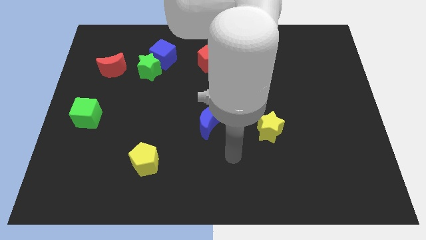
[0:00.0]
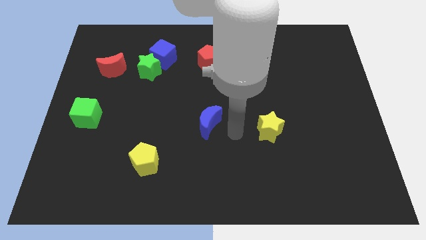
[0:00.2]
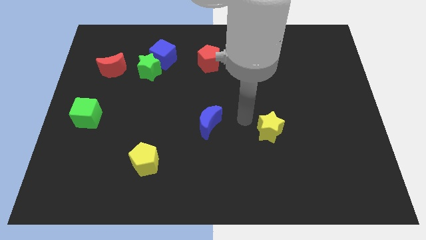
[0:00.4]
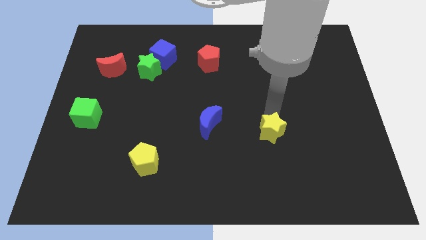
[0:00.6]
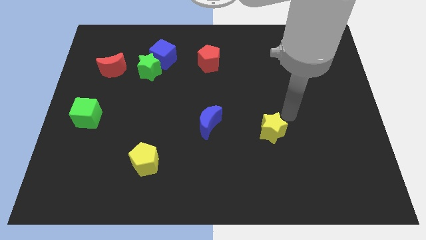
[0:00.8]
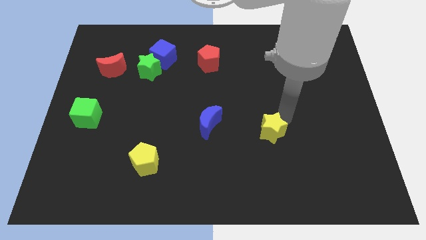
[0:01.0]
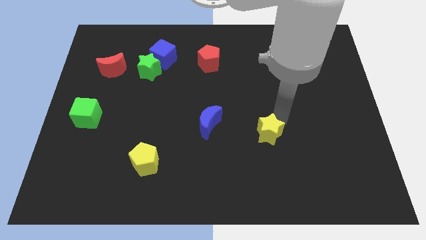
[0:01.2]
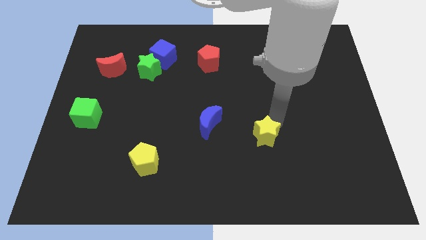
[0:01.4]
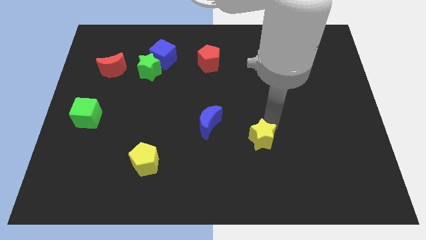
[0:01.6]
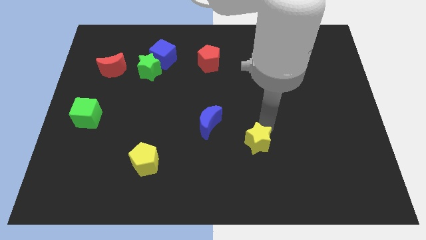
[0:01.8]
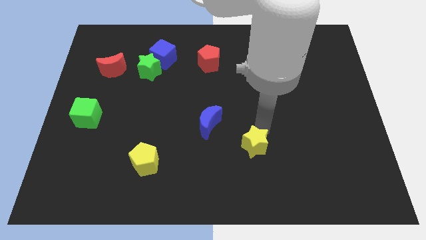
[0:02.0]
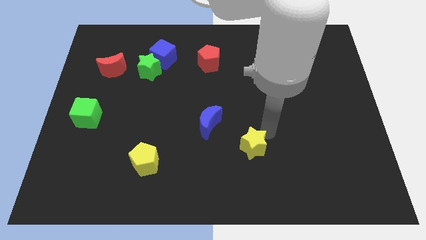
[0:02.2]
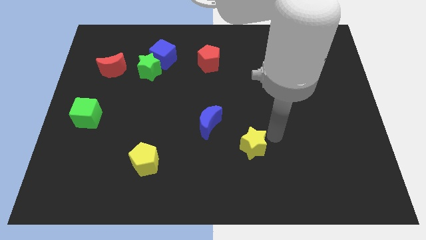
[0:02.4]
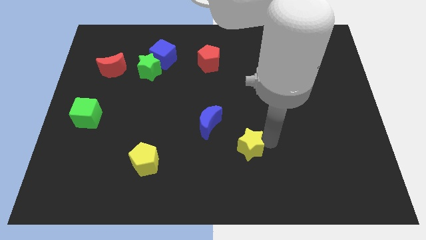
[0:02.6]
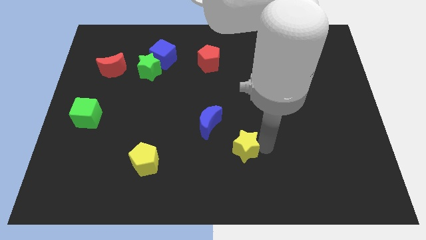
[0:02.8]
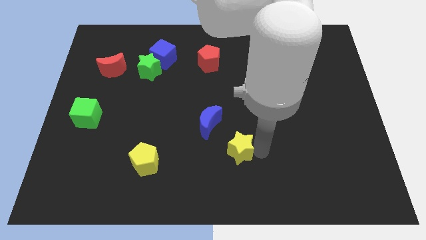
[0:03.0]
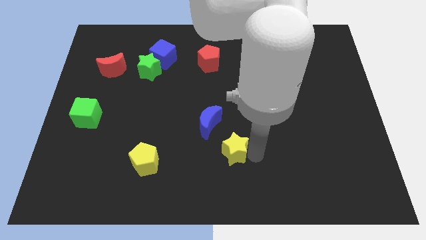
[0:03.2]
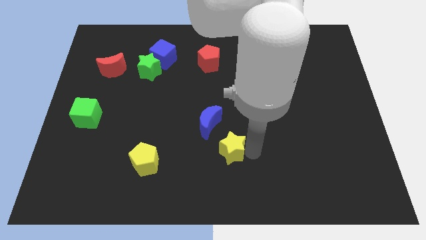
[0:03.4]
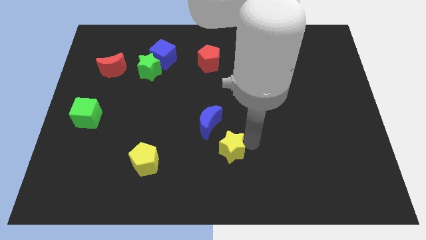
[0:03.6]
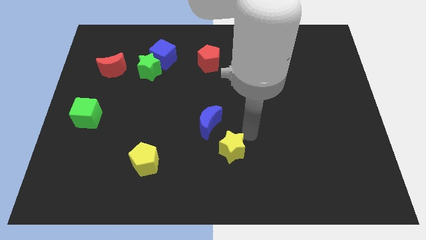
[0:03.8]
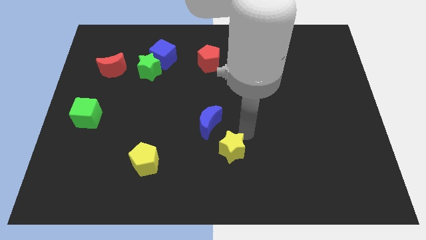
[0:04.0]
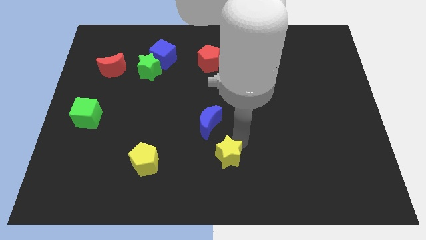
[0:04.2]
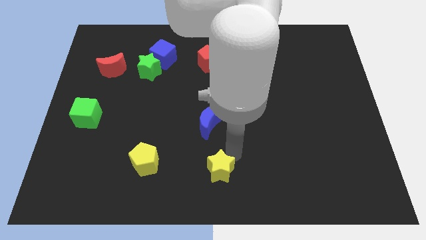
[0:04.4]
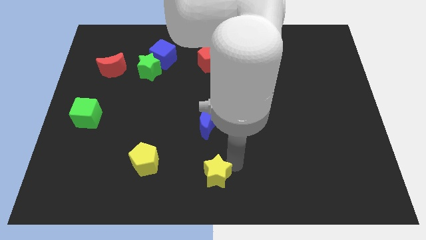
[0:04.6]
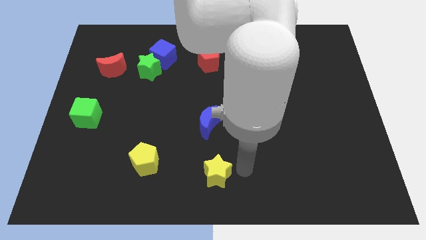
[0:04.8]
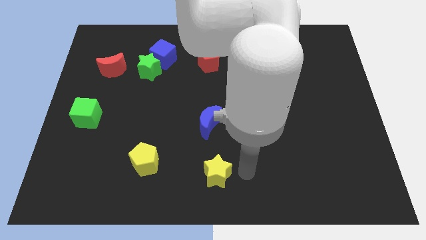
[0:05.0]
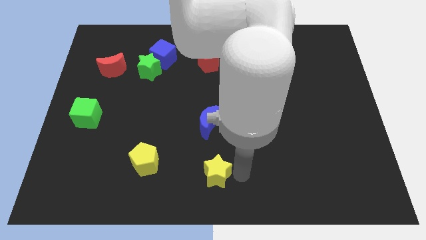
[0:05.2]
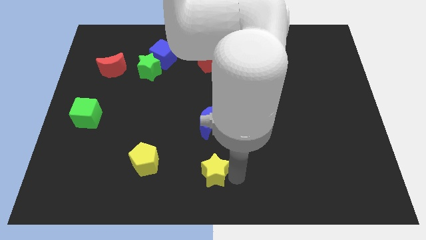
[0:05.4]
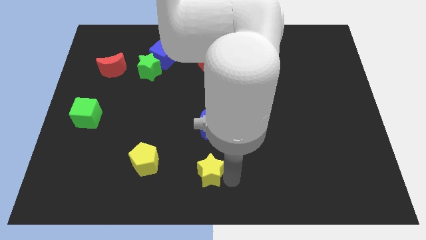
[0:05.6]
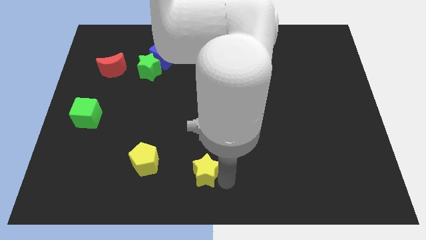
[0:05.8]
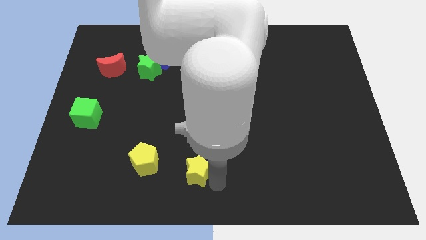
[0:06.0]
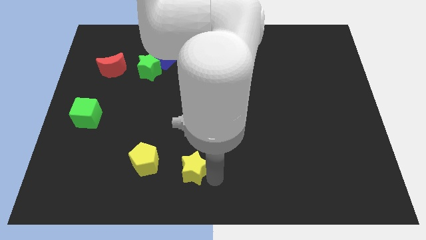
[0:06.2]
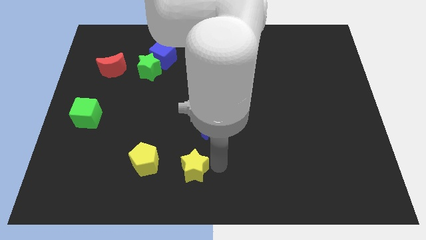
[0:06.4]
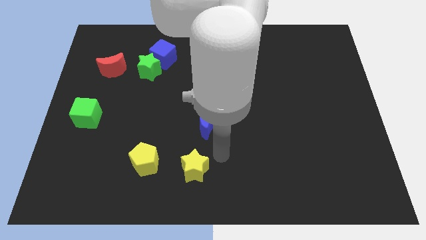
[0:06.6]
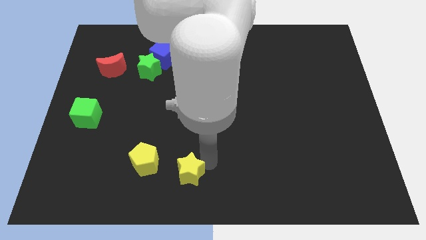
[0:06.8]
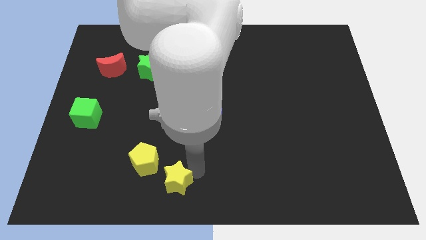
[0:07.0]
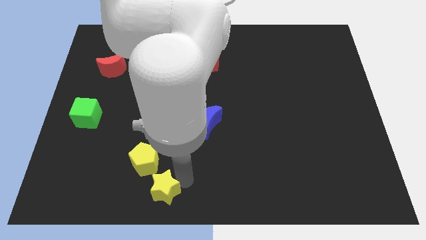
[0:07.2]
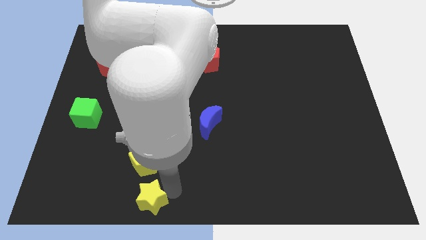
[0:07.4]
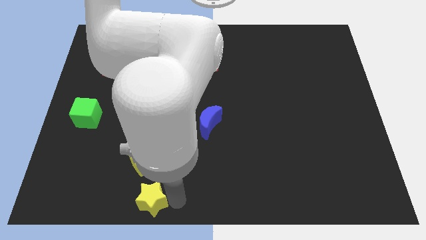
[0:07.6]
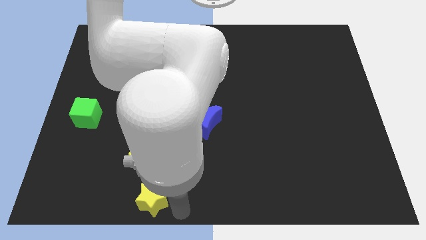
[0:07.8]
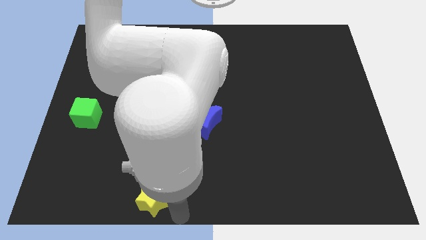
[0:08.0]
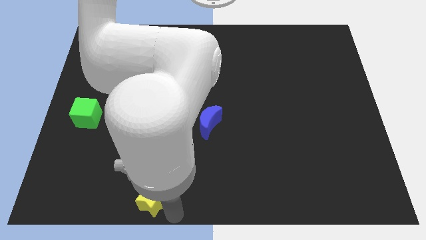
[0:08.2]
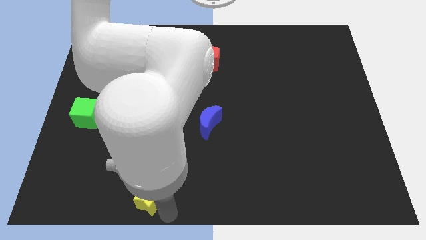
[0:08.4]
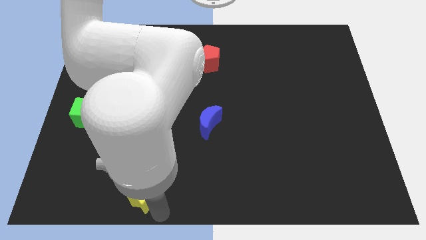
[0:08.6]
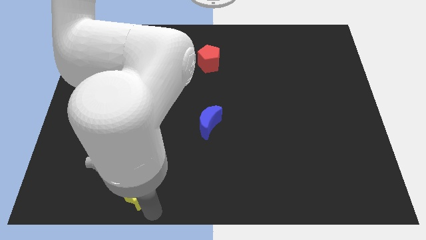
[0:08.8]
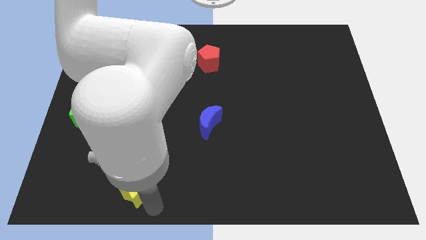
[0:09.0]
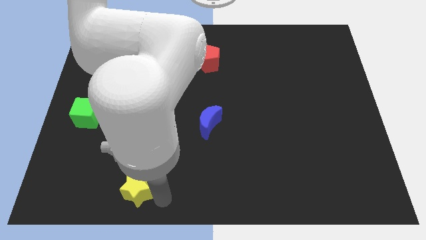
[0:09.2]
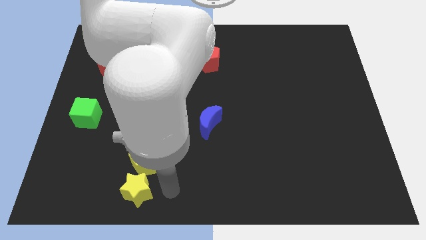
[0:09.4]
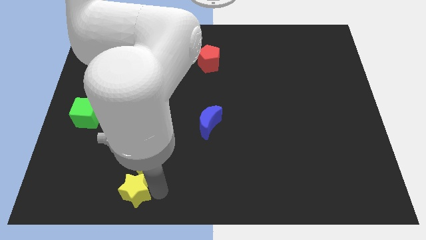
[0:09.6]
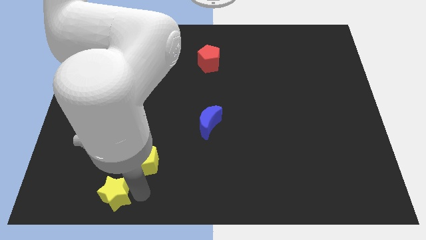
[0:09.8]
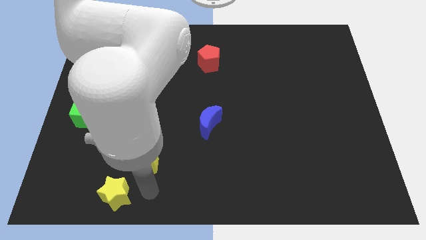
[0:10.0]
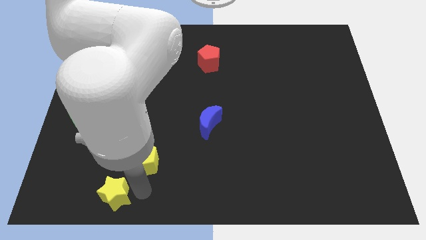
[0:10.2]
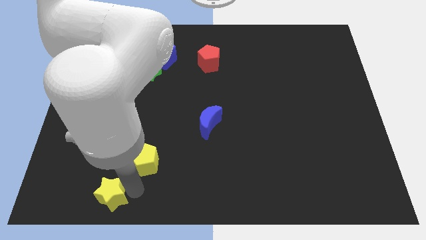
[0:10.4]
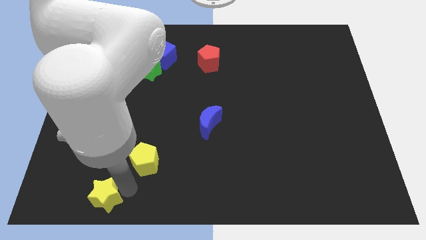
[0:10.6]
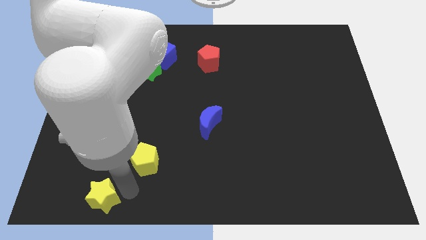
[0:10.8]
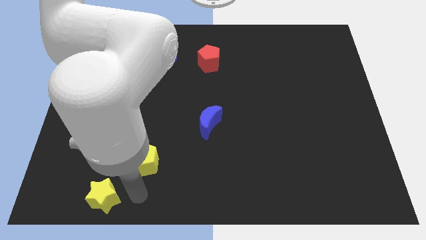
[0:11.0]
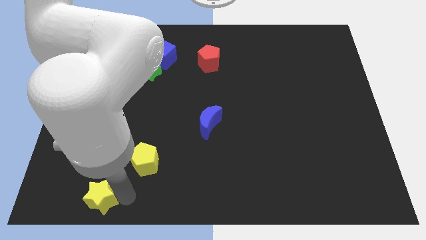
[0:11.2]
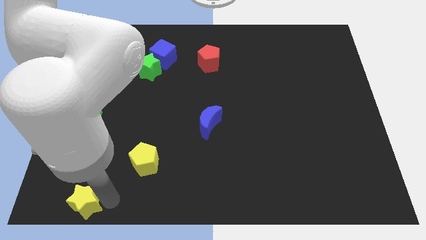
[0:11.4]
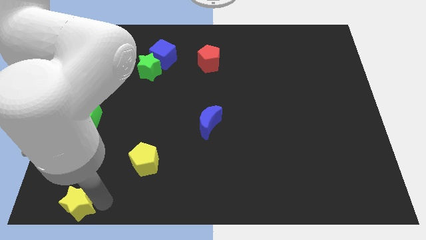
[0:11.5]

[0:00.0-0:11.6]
slide the yellow star to the lower left corner

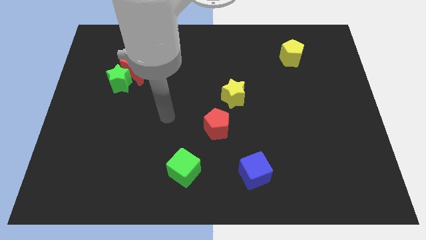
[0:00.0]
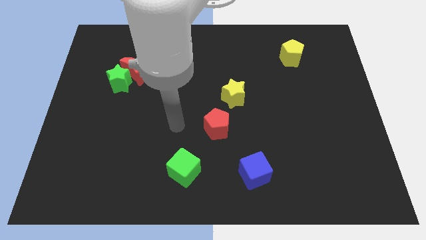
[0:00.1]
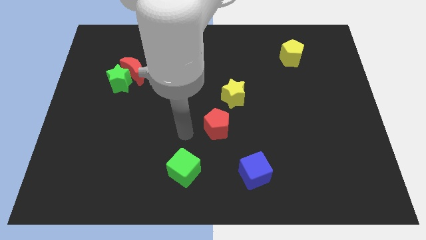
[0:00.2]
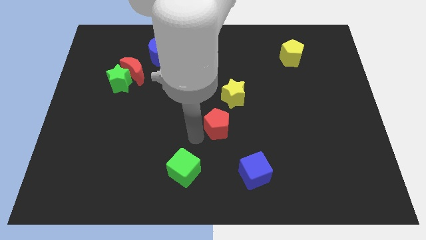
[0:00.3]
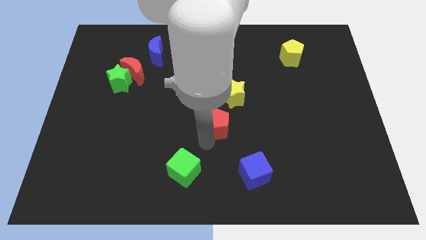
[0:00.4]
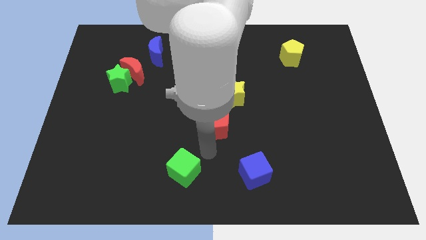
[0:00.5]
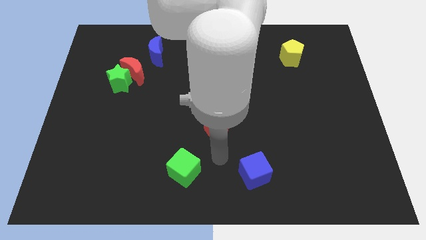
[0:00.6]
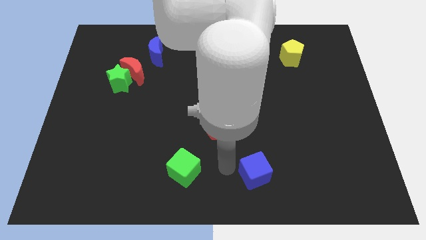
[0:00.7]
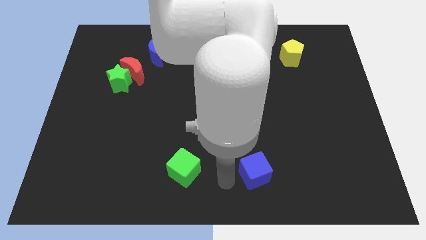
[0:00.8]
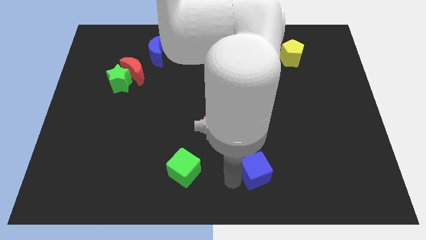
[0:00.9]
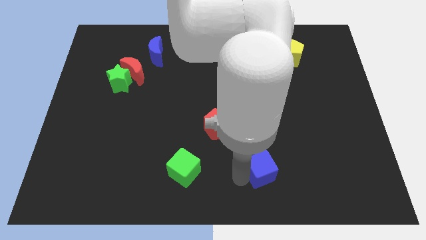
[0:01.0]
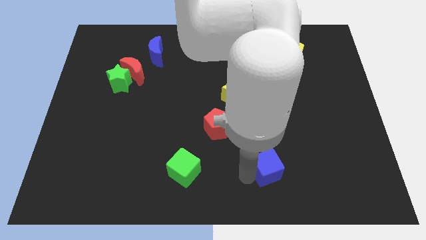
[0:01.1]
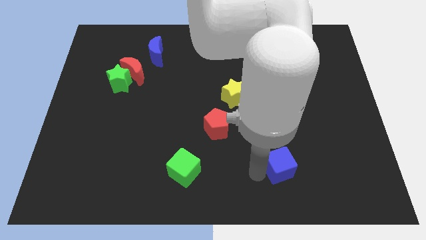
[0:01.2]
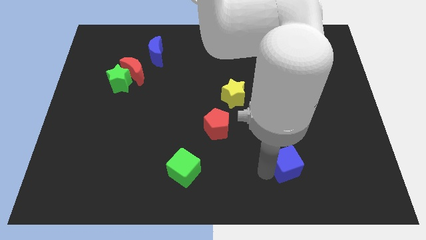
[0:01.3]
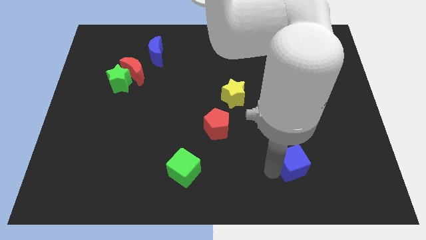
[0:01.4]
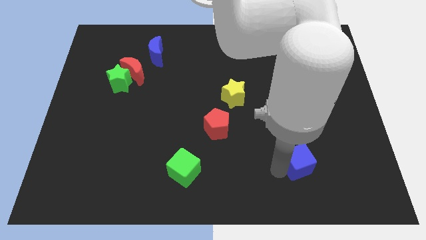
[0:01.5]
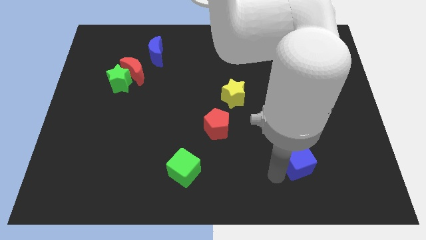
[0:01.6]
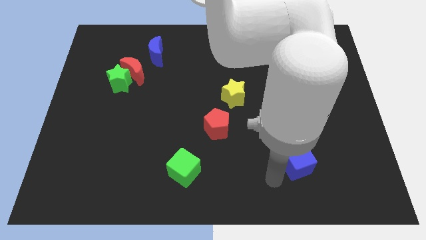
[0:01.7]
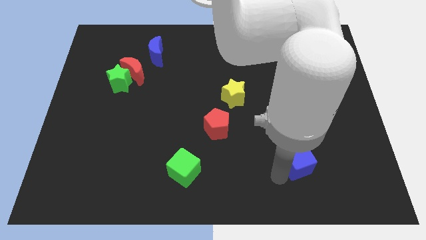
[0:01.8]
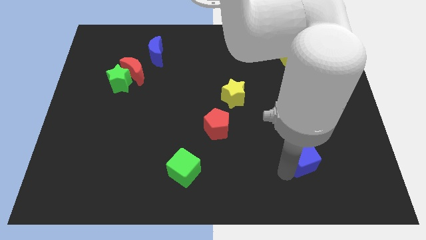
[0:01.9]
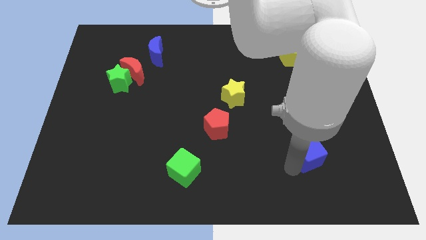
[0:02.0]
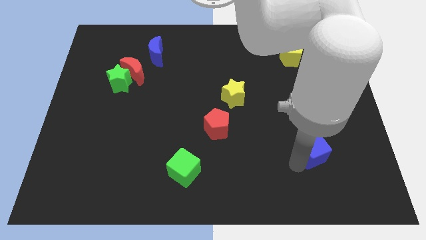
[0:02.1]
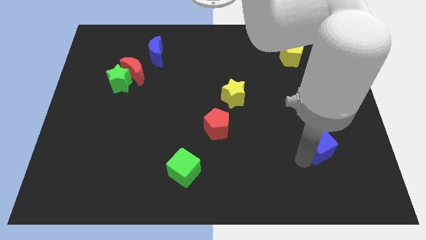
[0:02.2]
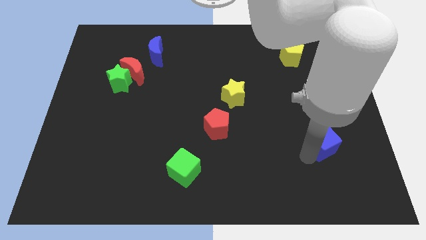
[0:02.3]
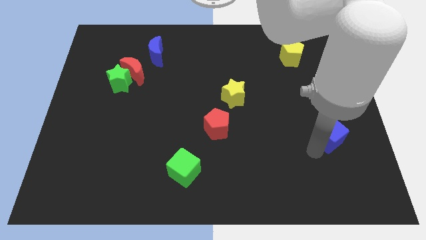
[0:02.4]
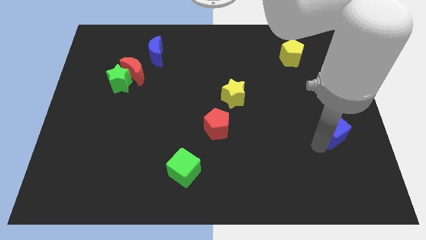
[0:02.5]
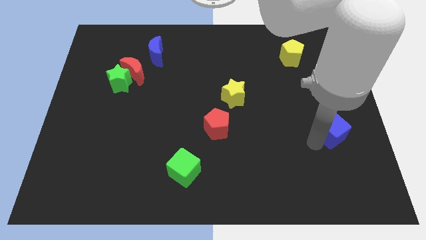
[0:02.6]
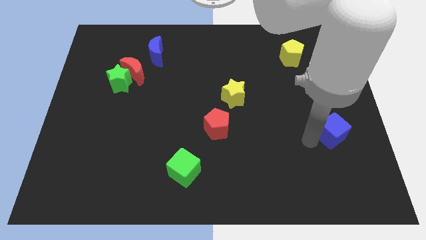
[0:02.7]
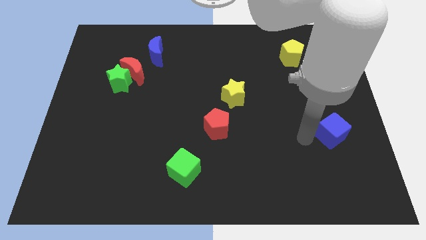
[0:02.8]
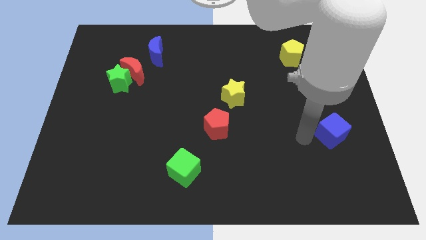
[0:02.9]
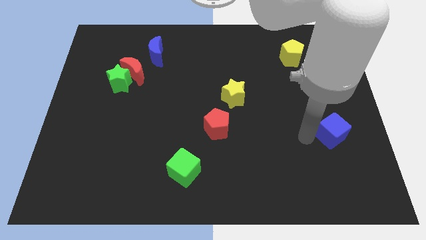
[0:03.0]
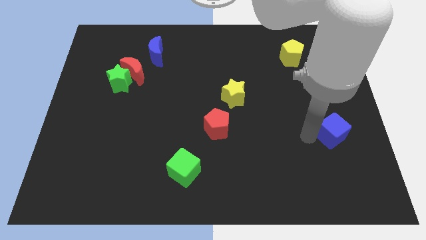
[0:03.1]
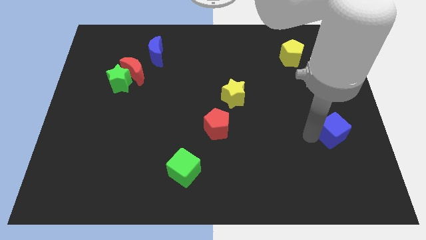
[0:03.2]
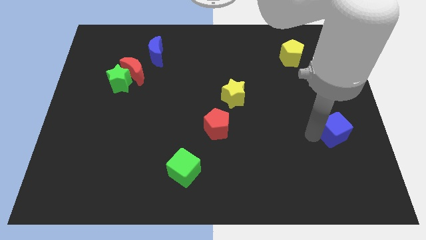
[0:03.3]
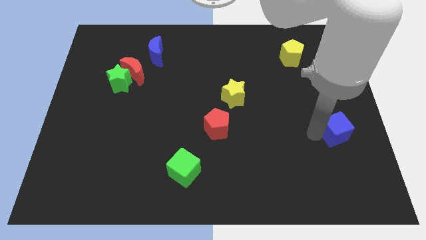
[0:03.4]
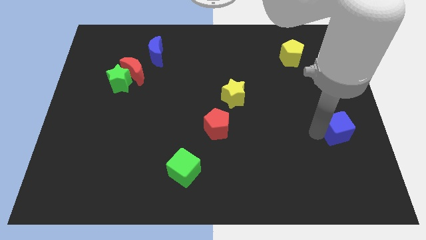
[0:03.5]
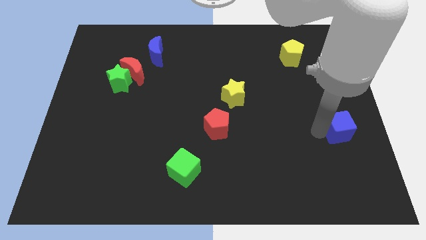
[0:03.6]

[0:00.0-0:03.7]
put the blue cube to the center right
